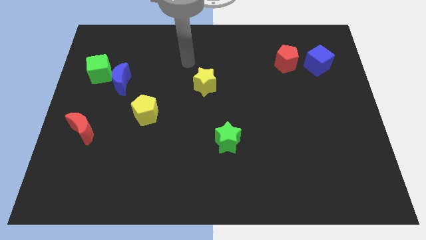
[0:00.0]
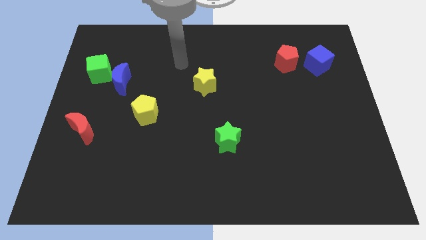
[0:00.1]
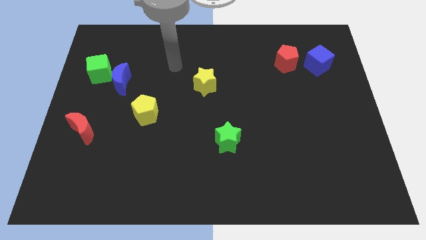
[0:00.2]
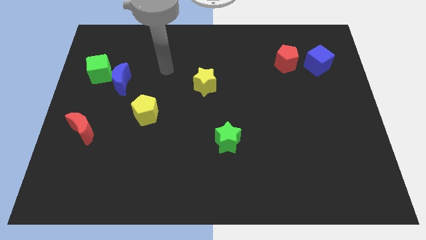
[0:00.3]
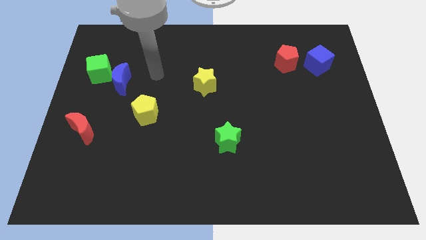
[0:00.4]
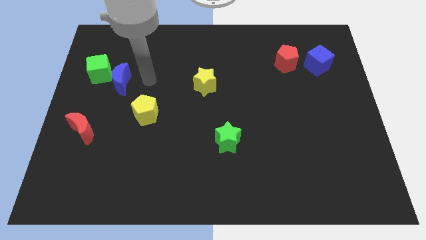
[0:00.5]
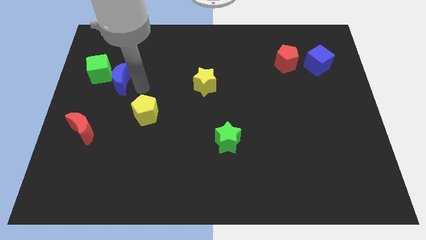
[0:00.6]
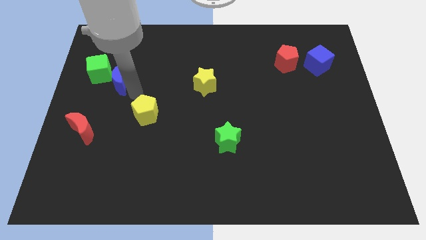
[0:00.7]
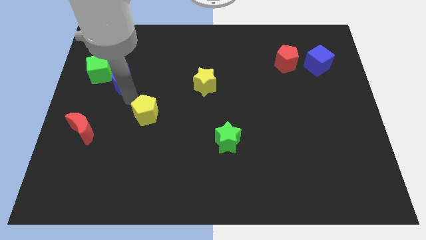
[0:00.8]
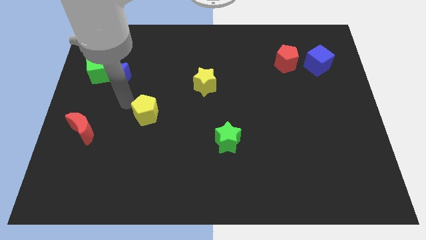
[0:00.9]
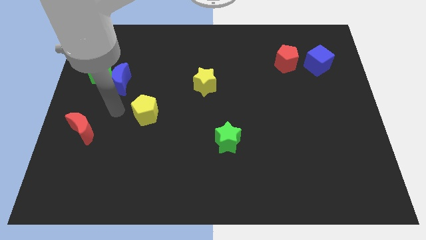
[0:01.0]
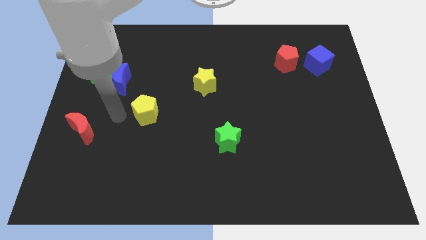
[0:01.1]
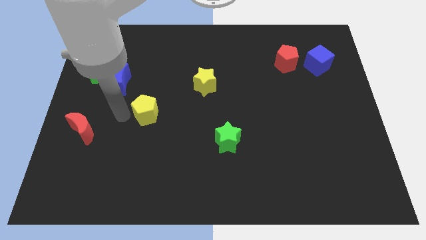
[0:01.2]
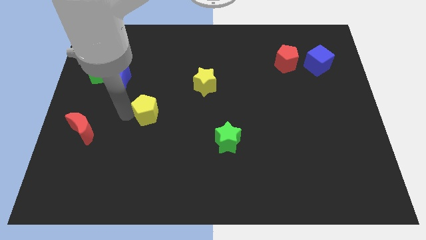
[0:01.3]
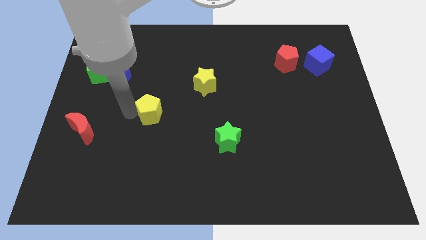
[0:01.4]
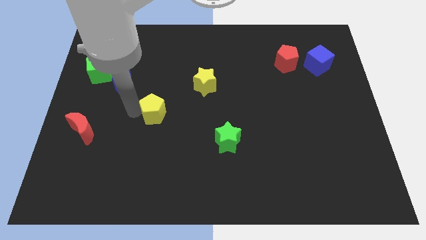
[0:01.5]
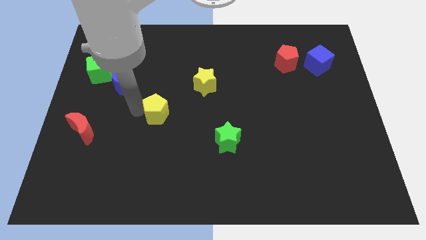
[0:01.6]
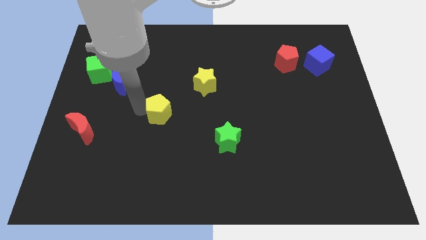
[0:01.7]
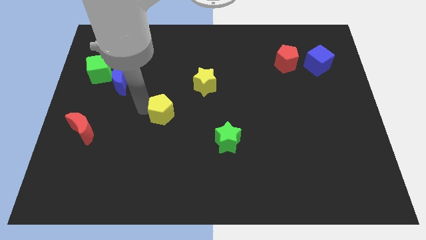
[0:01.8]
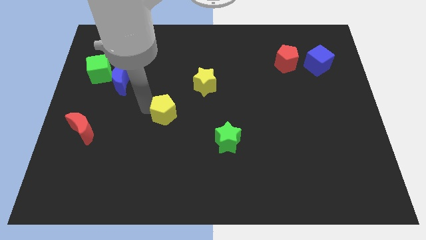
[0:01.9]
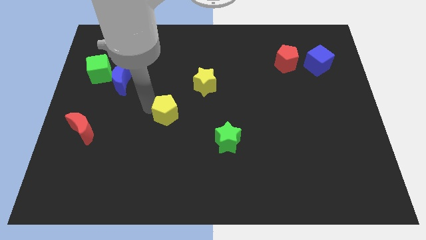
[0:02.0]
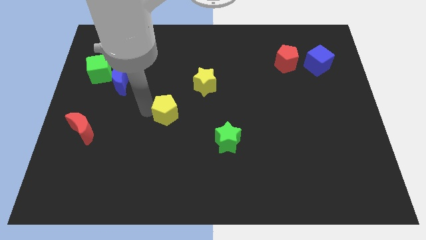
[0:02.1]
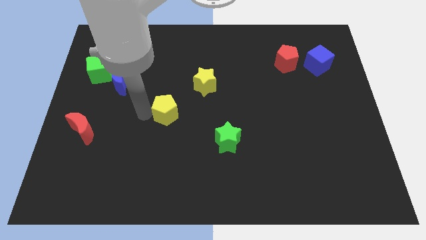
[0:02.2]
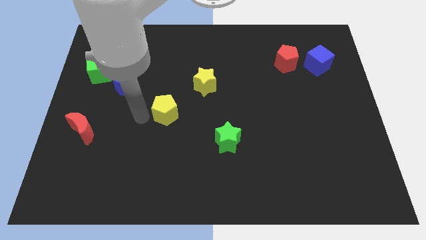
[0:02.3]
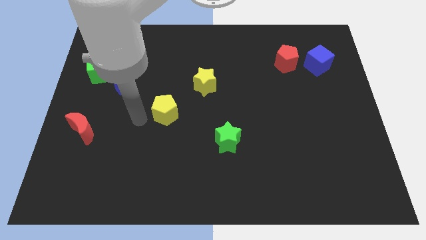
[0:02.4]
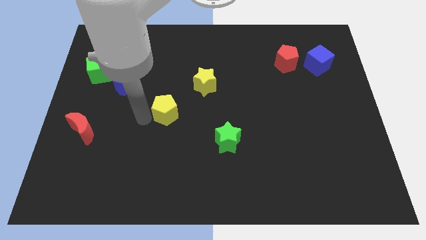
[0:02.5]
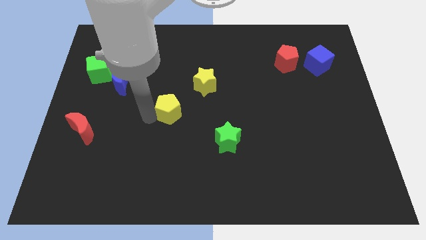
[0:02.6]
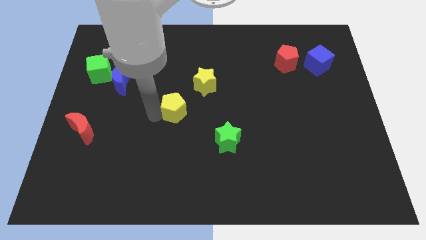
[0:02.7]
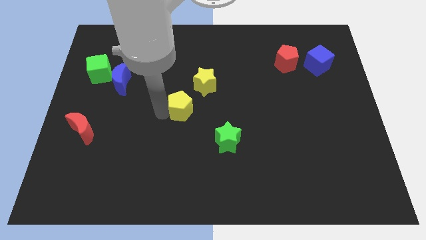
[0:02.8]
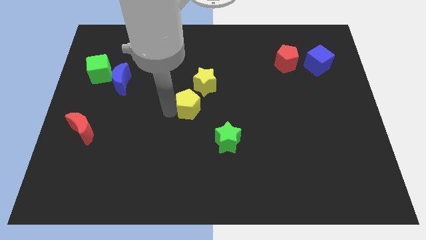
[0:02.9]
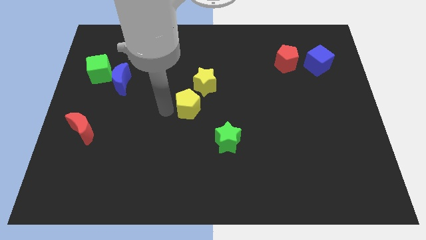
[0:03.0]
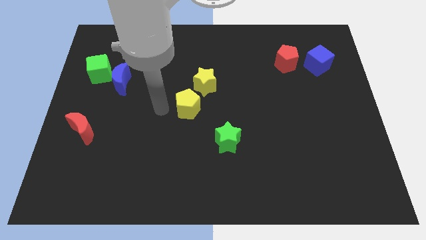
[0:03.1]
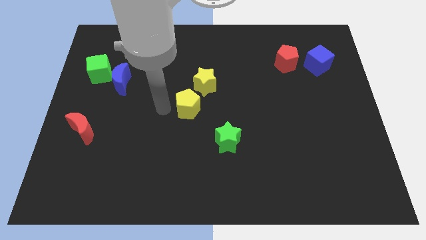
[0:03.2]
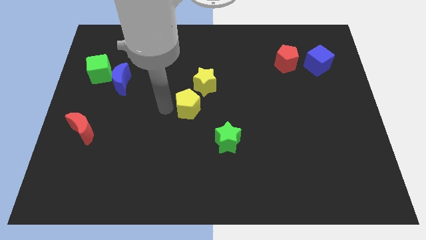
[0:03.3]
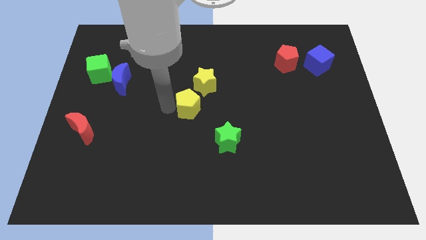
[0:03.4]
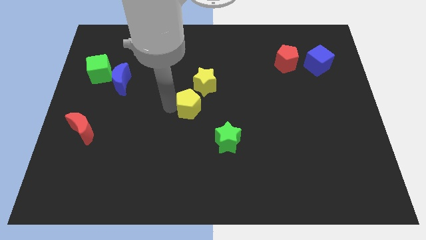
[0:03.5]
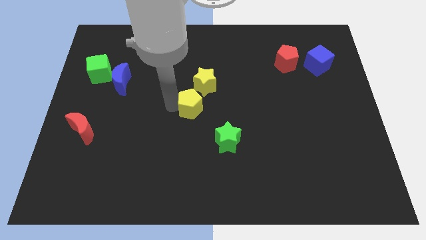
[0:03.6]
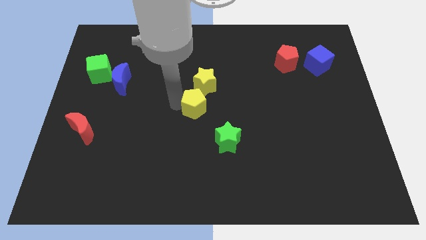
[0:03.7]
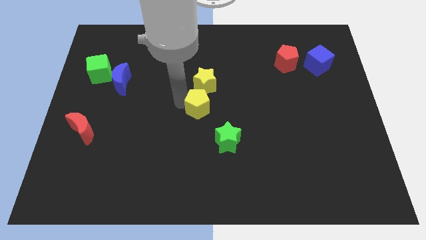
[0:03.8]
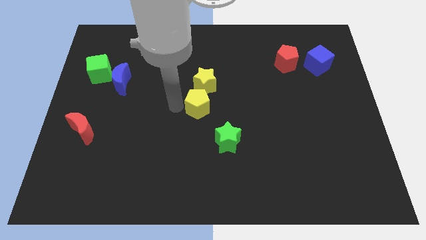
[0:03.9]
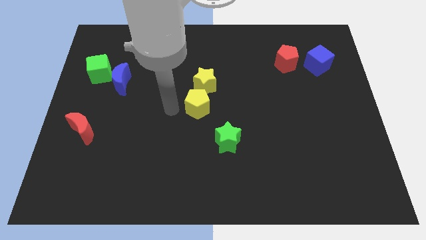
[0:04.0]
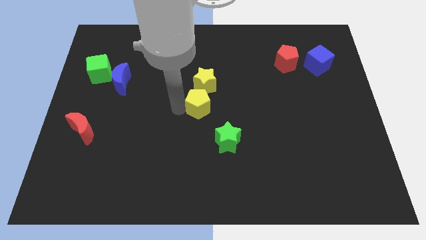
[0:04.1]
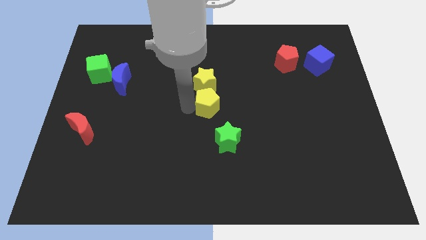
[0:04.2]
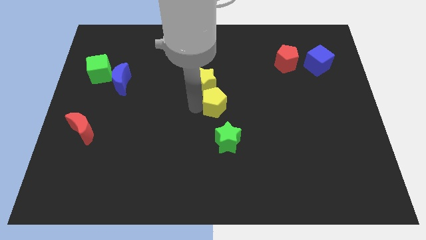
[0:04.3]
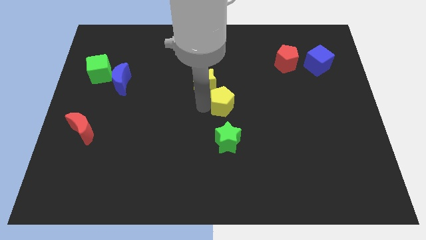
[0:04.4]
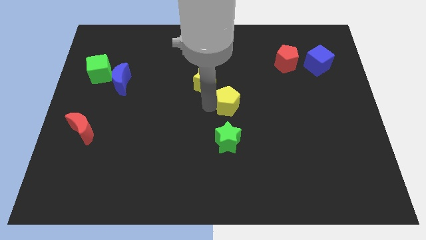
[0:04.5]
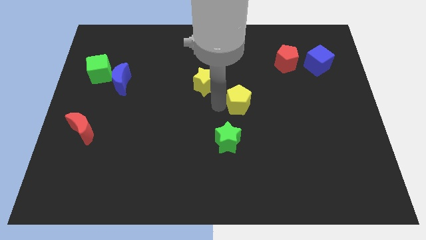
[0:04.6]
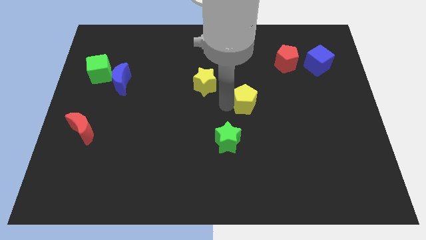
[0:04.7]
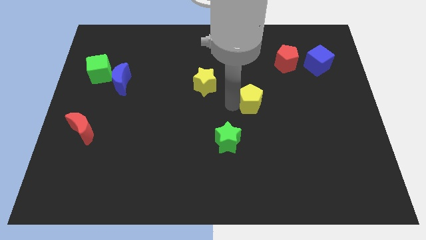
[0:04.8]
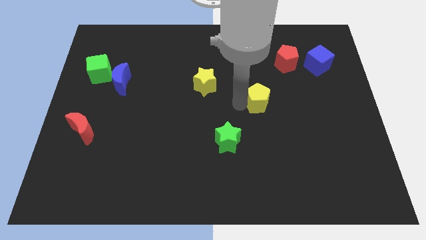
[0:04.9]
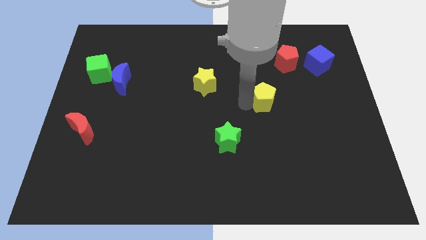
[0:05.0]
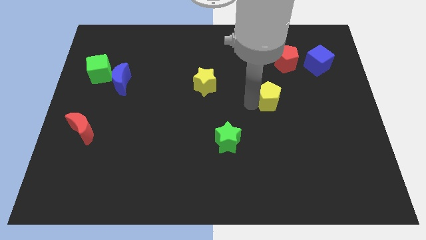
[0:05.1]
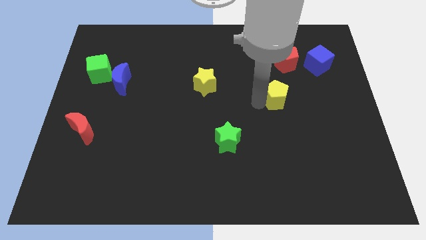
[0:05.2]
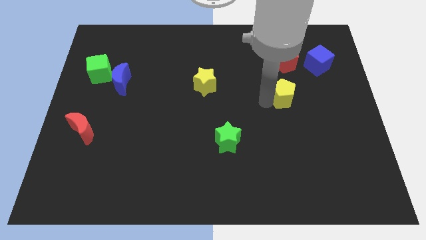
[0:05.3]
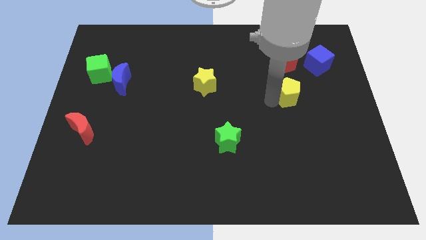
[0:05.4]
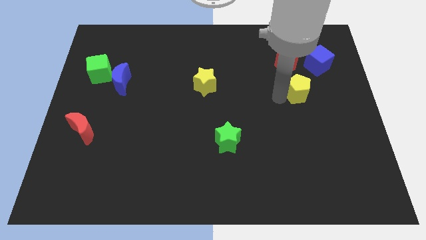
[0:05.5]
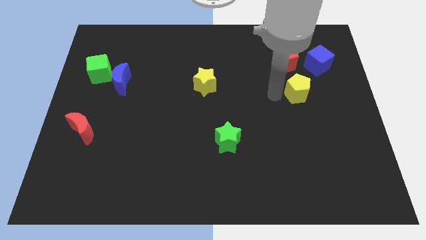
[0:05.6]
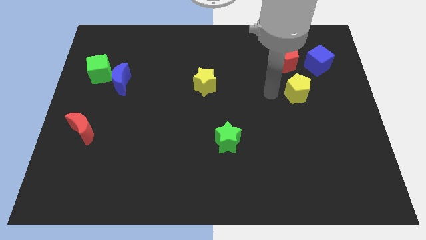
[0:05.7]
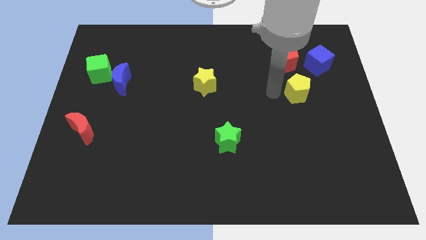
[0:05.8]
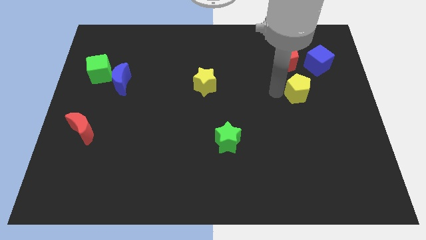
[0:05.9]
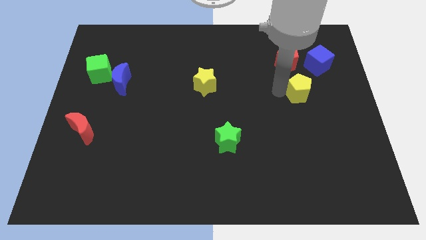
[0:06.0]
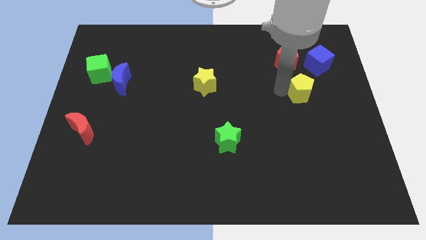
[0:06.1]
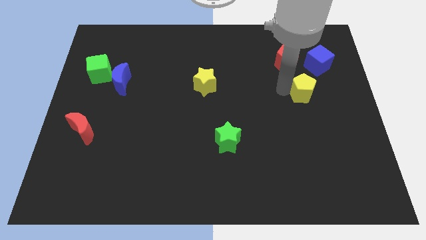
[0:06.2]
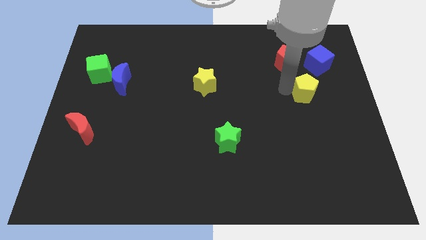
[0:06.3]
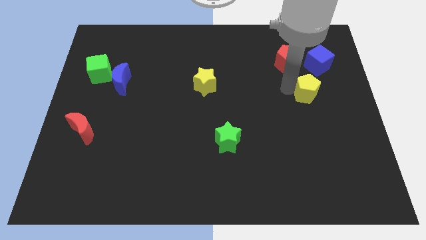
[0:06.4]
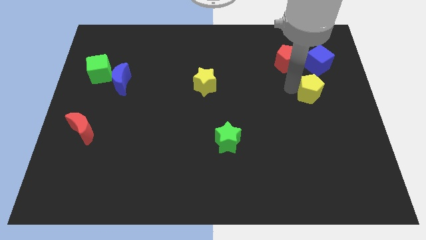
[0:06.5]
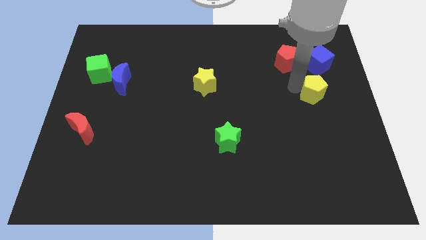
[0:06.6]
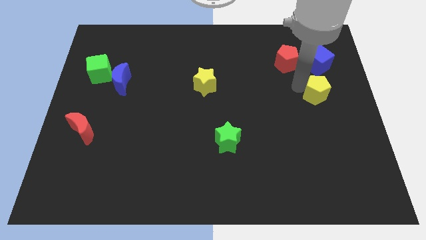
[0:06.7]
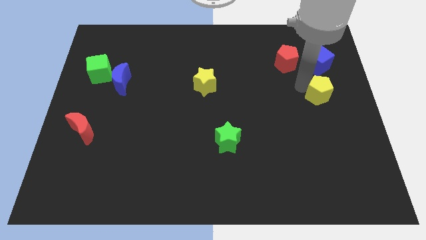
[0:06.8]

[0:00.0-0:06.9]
push the yellow pentagon to the right side of the board
